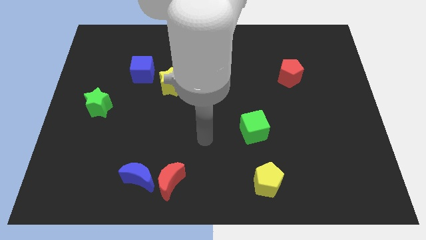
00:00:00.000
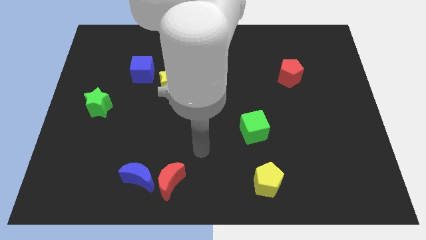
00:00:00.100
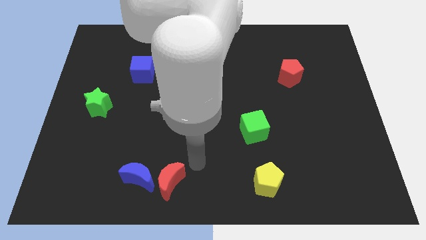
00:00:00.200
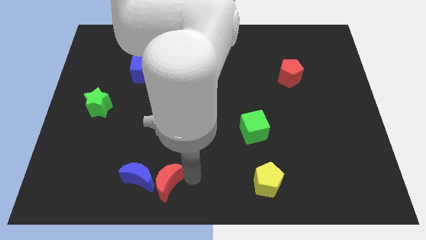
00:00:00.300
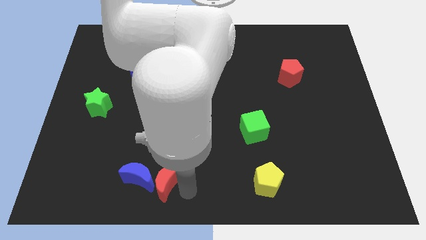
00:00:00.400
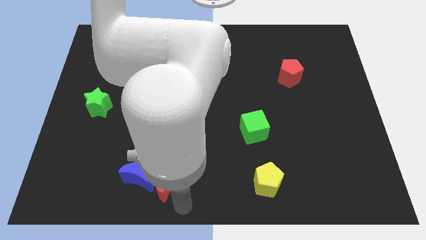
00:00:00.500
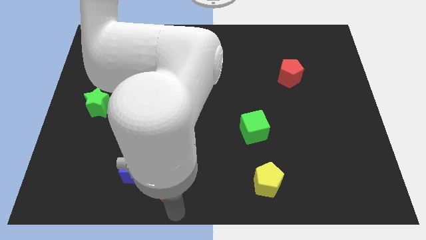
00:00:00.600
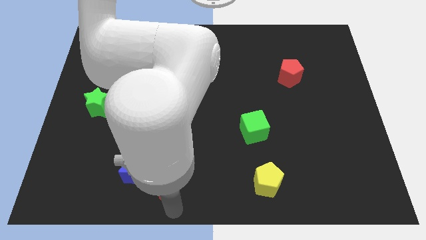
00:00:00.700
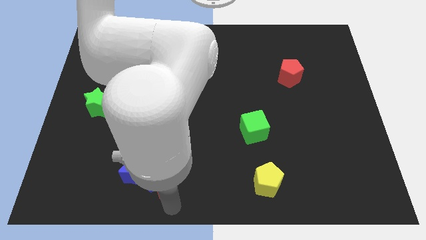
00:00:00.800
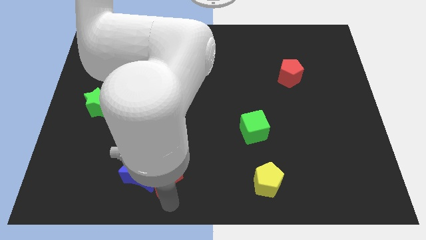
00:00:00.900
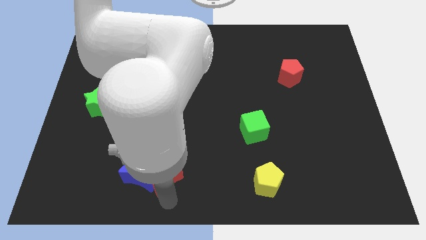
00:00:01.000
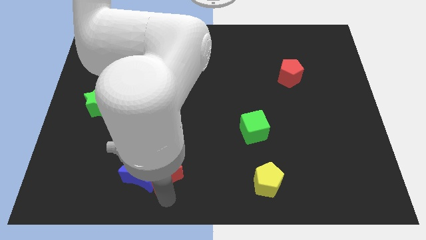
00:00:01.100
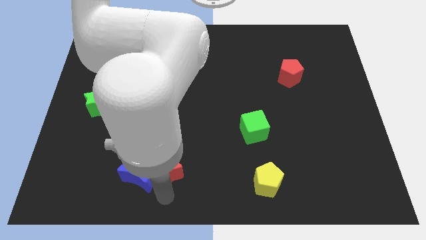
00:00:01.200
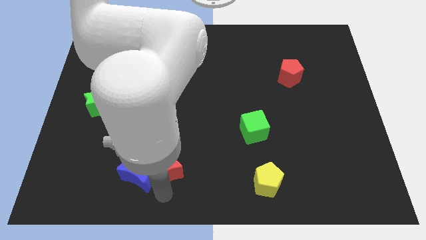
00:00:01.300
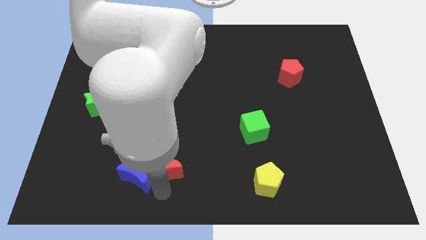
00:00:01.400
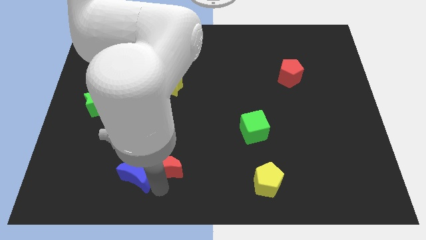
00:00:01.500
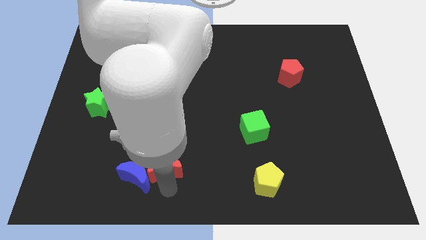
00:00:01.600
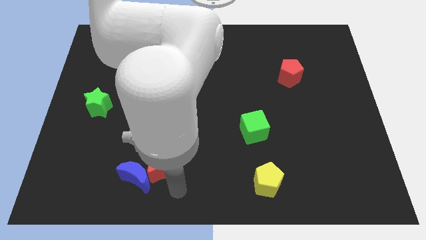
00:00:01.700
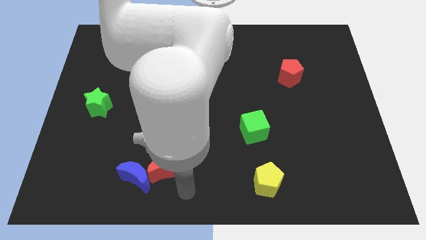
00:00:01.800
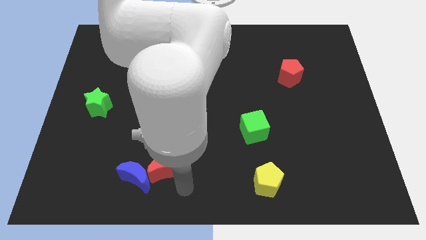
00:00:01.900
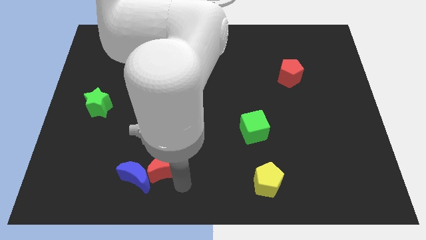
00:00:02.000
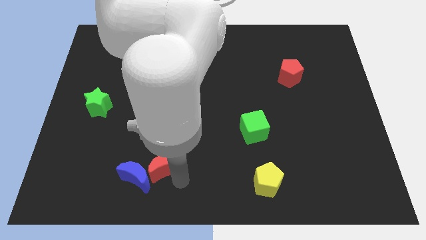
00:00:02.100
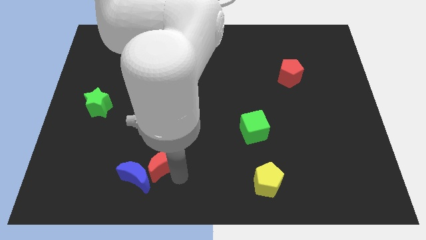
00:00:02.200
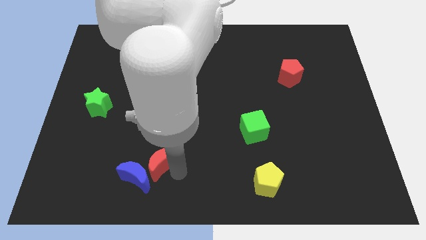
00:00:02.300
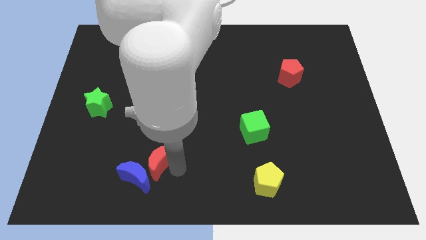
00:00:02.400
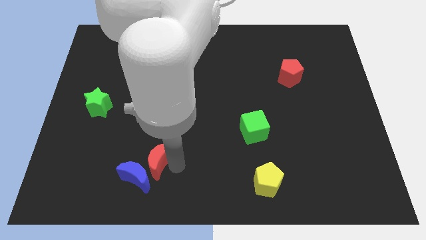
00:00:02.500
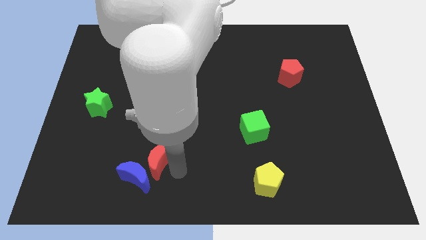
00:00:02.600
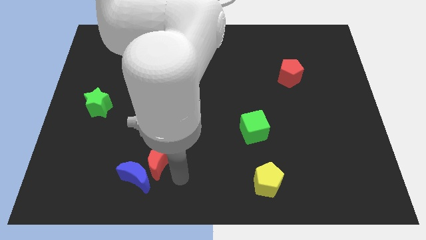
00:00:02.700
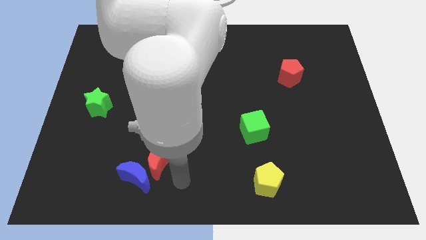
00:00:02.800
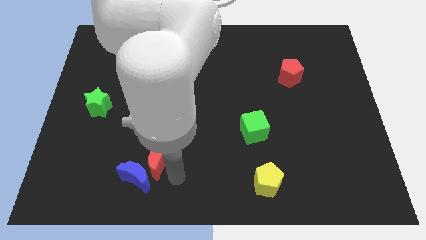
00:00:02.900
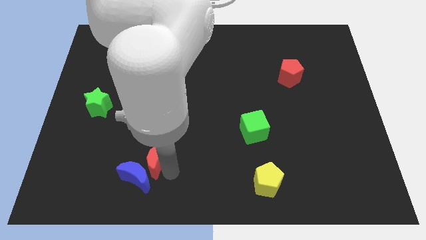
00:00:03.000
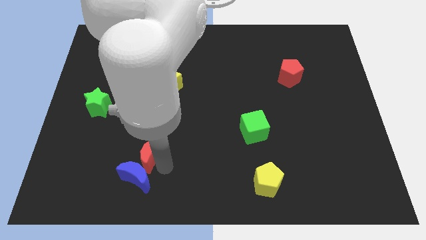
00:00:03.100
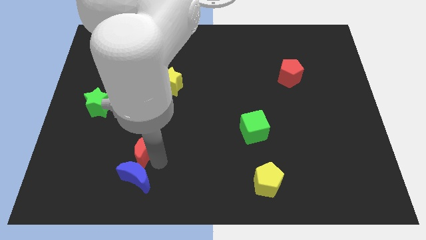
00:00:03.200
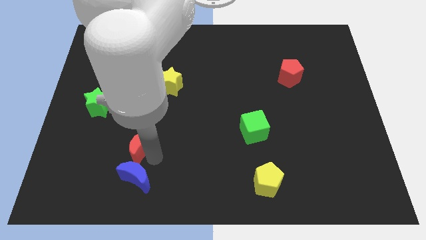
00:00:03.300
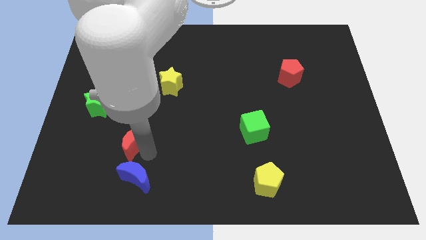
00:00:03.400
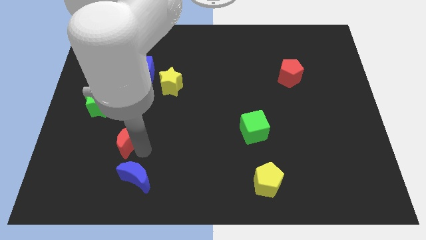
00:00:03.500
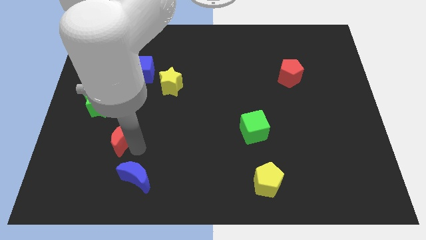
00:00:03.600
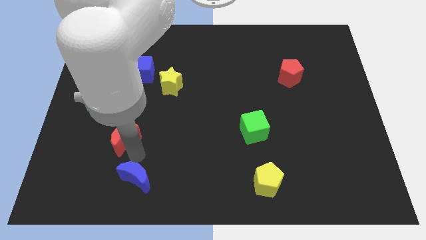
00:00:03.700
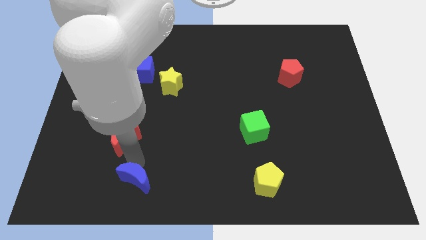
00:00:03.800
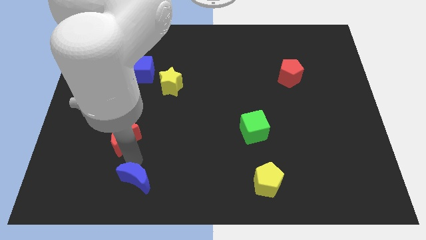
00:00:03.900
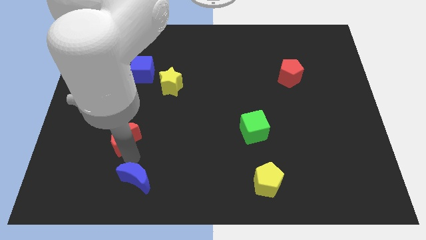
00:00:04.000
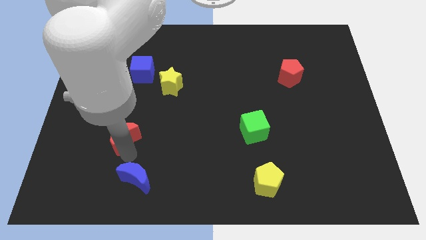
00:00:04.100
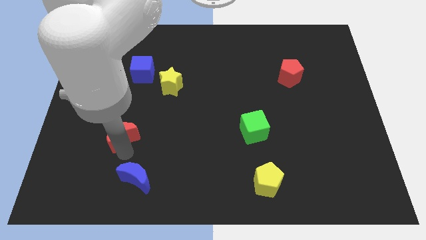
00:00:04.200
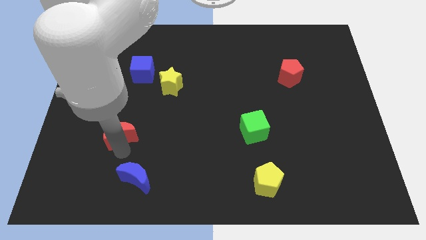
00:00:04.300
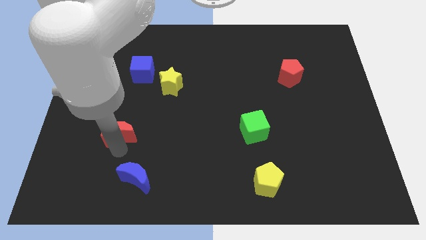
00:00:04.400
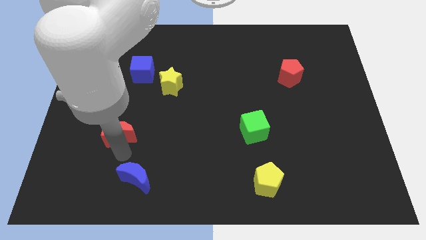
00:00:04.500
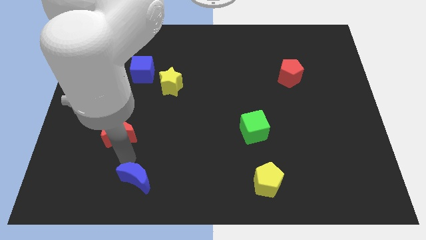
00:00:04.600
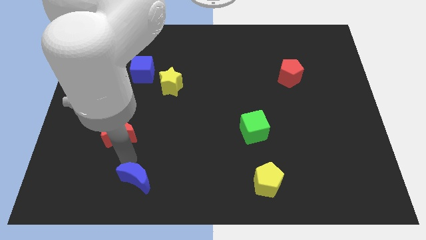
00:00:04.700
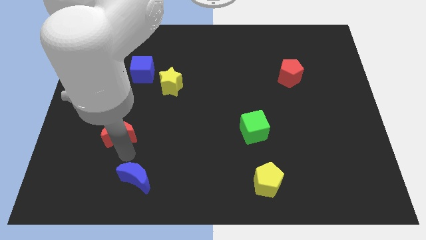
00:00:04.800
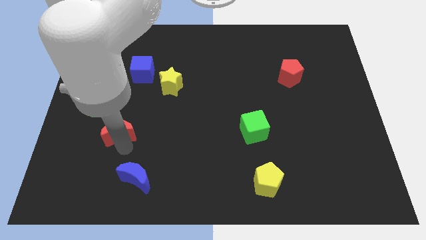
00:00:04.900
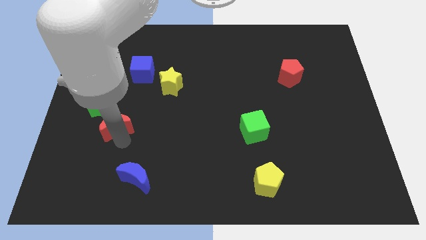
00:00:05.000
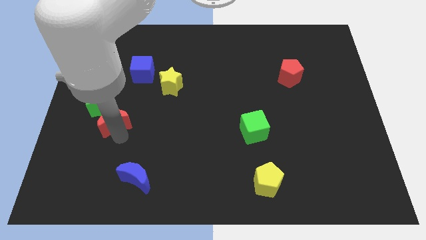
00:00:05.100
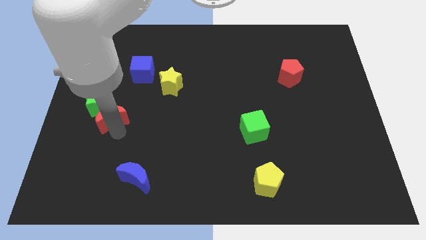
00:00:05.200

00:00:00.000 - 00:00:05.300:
put the red moon towards the green star

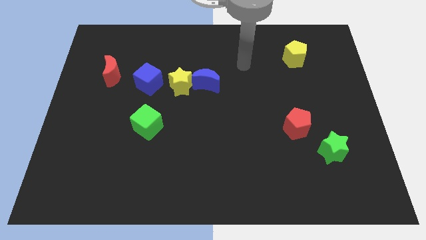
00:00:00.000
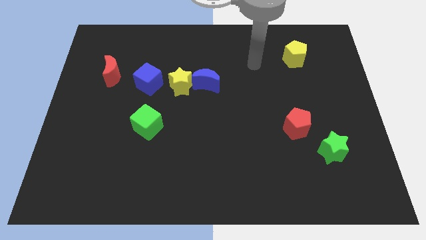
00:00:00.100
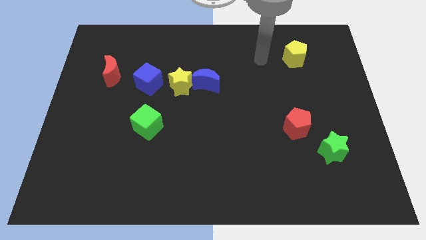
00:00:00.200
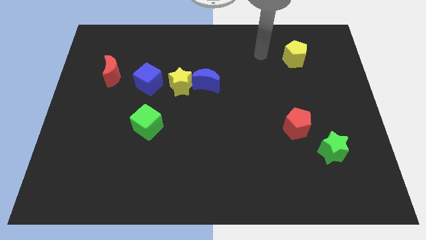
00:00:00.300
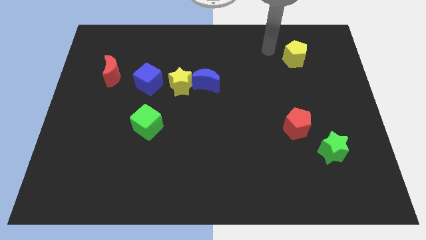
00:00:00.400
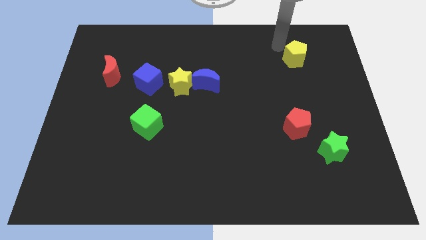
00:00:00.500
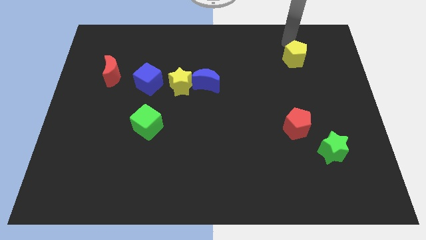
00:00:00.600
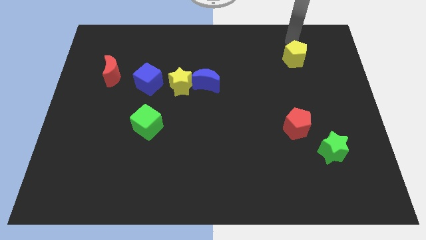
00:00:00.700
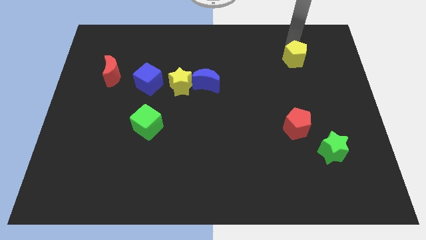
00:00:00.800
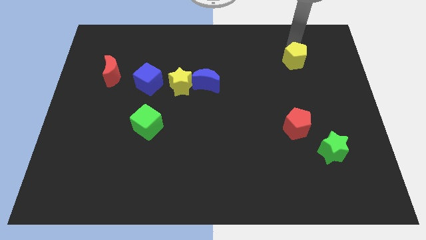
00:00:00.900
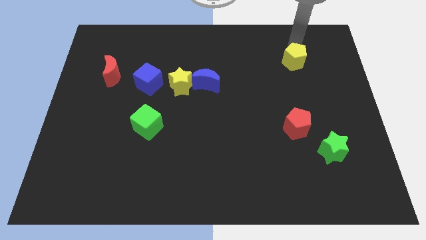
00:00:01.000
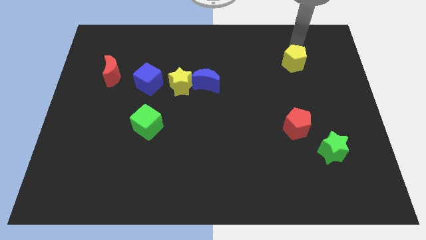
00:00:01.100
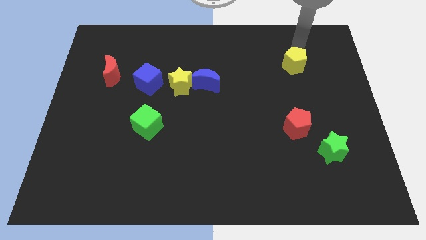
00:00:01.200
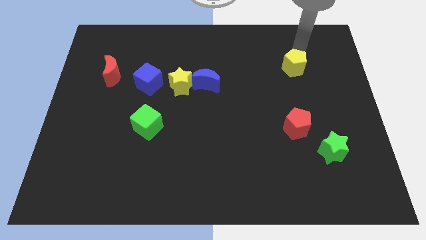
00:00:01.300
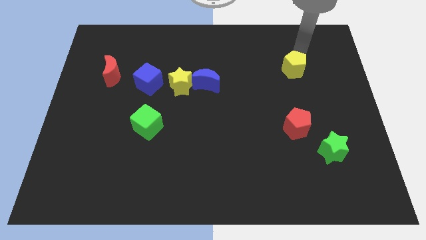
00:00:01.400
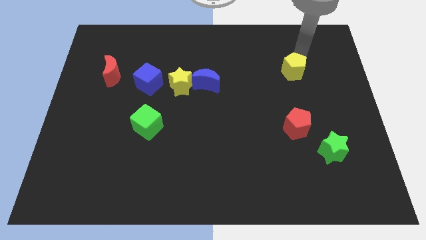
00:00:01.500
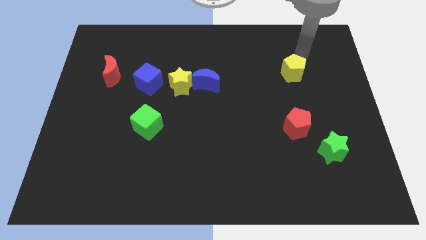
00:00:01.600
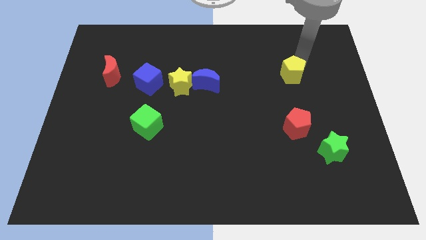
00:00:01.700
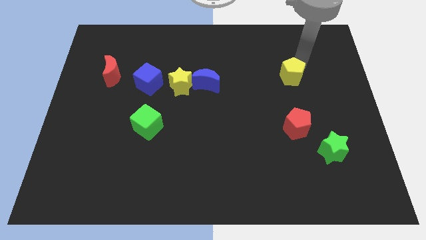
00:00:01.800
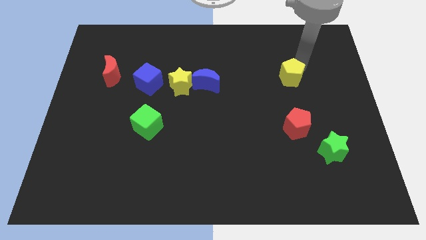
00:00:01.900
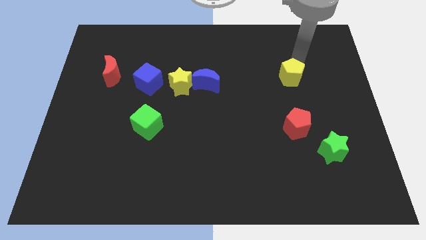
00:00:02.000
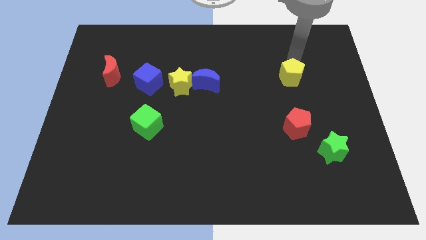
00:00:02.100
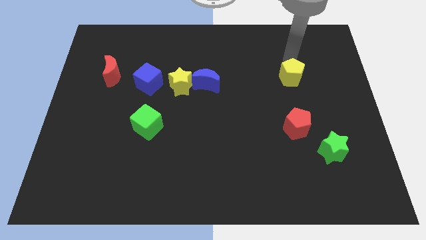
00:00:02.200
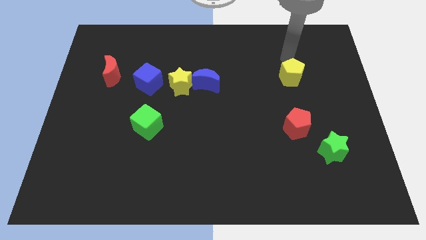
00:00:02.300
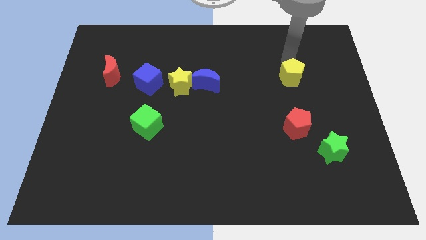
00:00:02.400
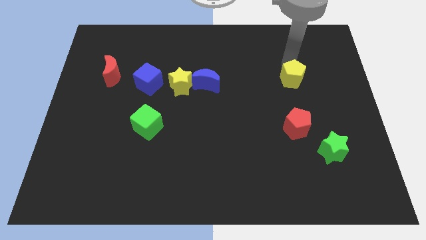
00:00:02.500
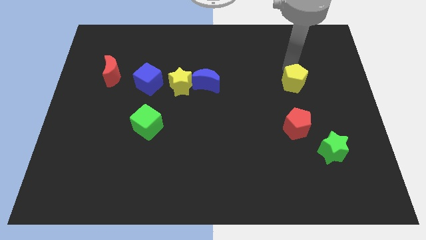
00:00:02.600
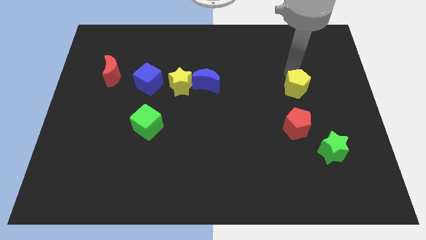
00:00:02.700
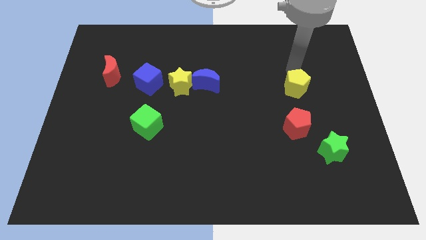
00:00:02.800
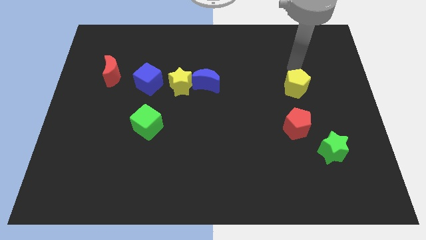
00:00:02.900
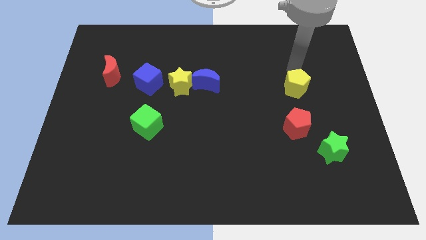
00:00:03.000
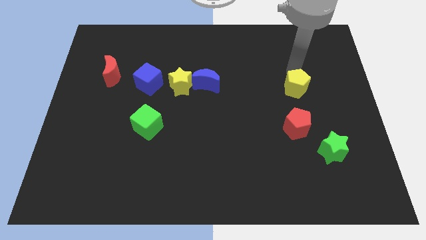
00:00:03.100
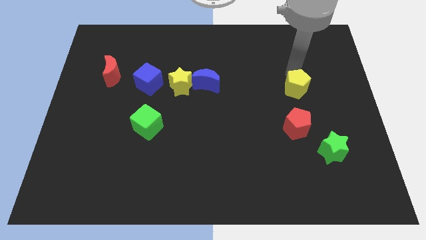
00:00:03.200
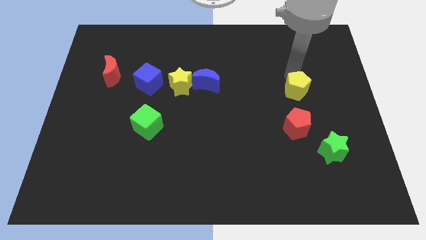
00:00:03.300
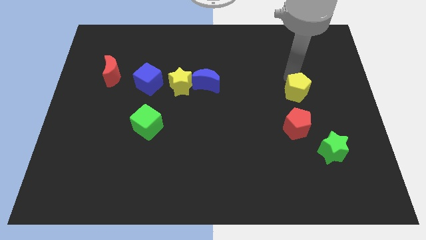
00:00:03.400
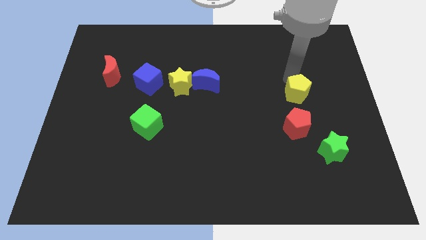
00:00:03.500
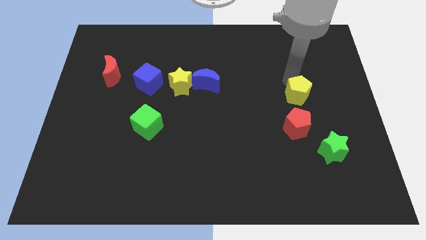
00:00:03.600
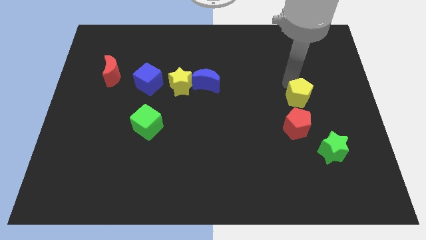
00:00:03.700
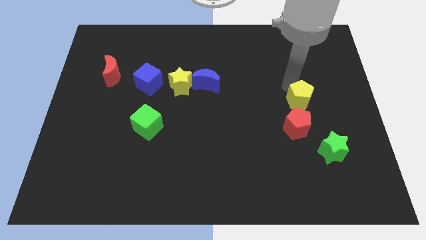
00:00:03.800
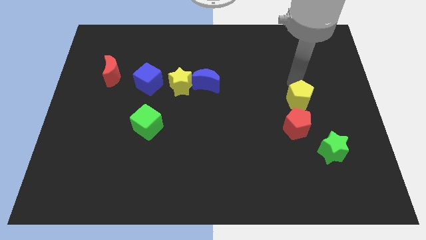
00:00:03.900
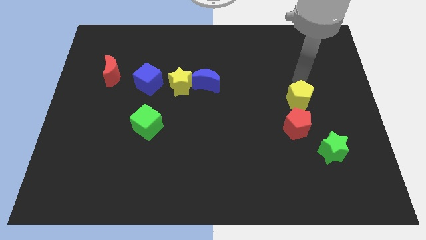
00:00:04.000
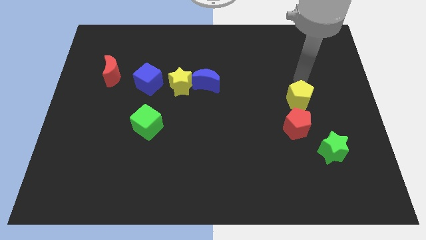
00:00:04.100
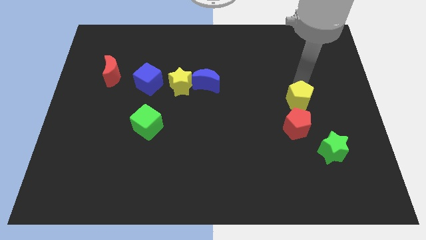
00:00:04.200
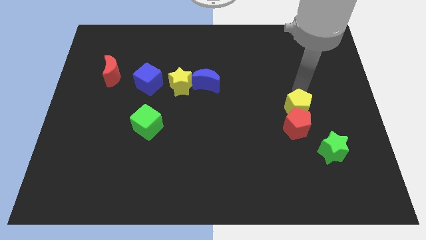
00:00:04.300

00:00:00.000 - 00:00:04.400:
put the yellow pentagon towards the red pentagon
